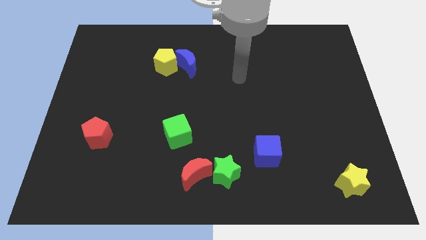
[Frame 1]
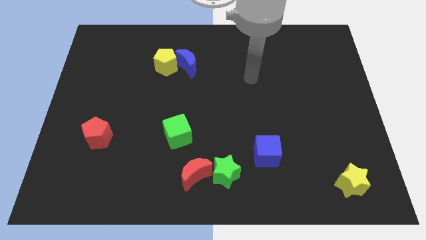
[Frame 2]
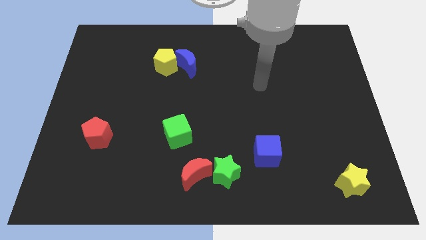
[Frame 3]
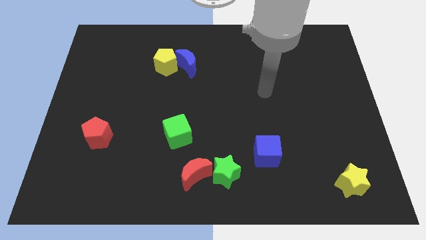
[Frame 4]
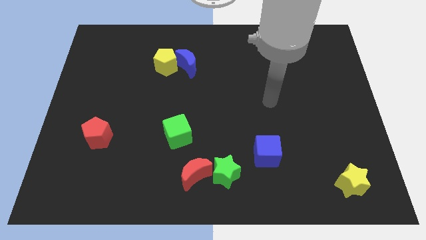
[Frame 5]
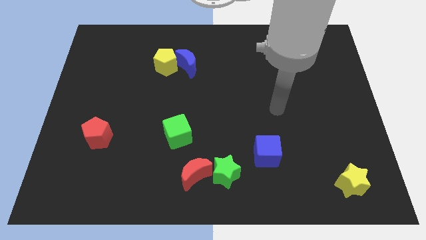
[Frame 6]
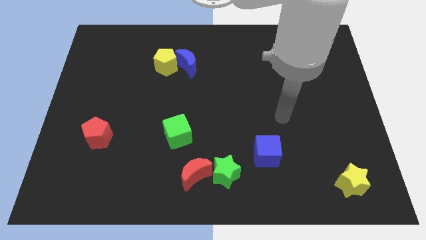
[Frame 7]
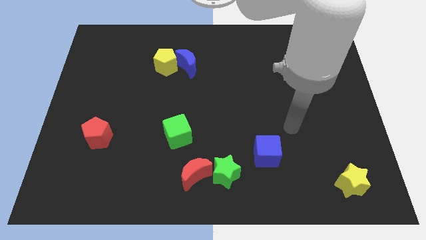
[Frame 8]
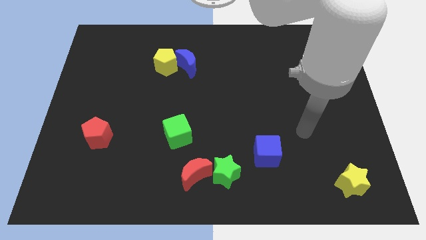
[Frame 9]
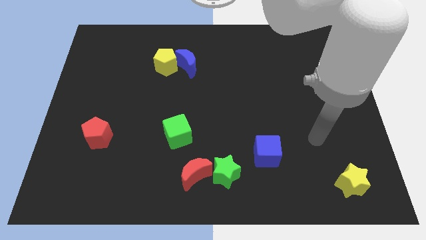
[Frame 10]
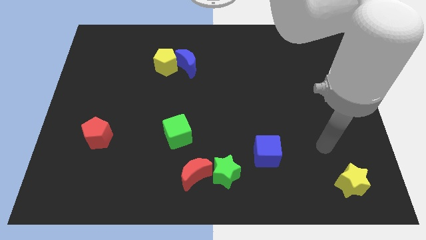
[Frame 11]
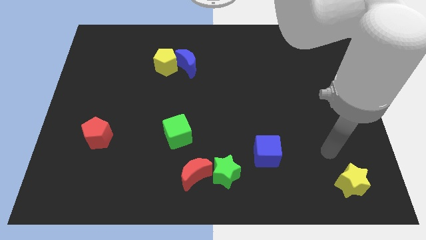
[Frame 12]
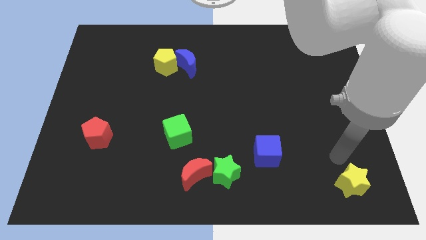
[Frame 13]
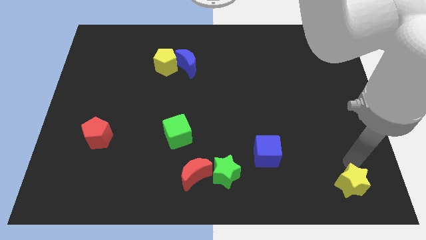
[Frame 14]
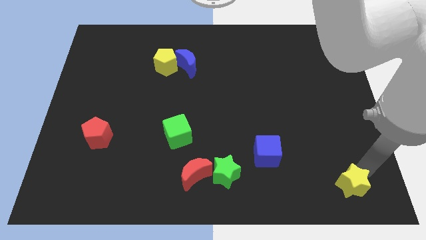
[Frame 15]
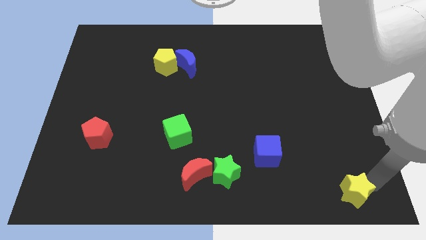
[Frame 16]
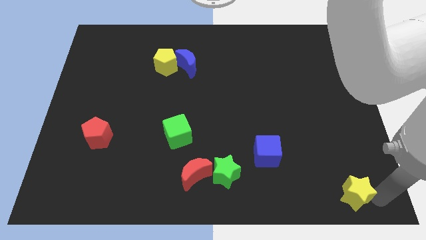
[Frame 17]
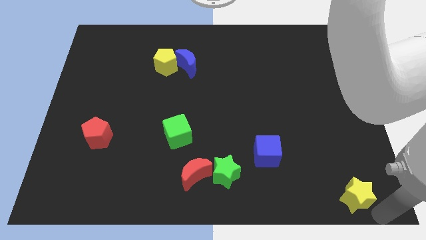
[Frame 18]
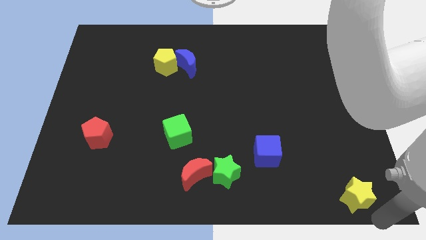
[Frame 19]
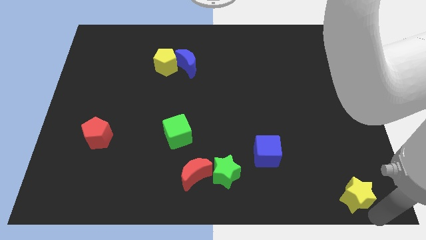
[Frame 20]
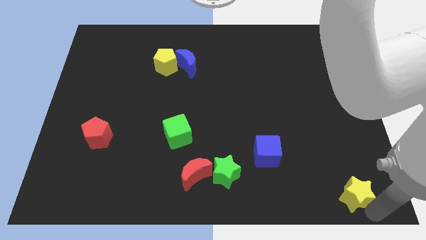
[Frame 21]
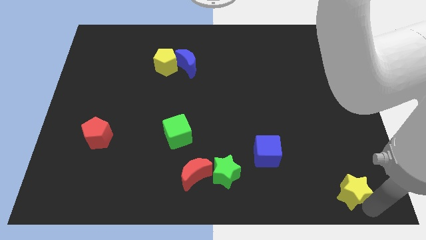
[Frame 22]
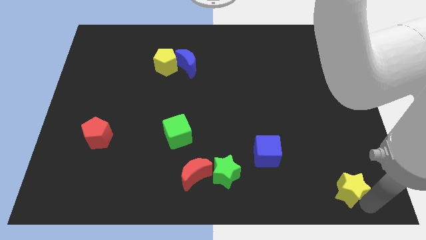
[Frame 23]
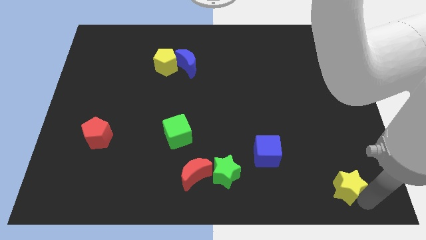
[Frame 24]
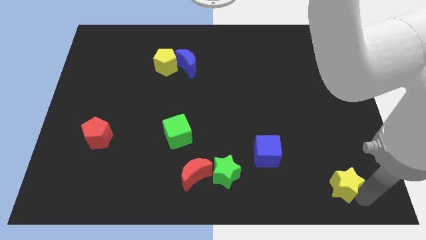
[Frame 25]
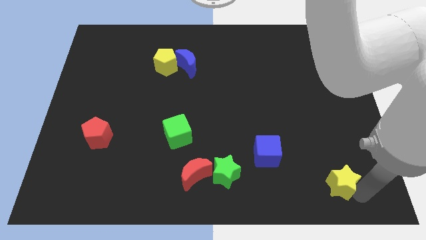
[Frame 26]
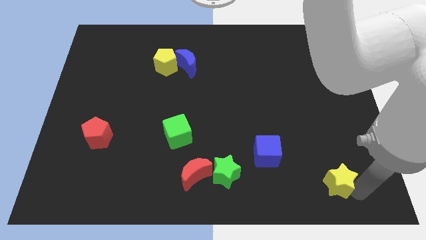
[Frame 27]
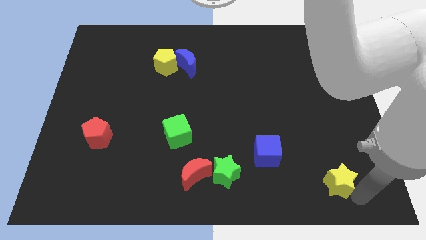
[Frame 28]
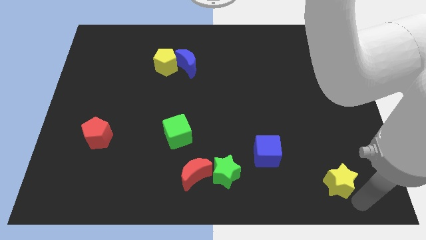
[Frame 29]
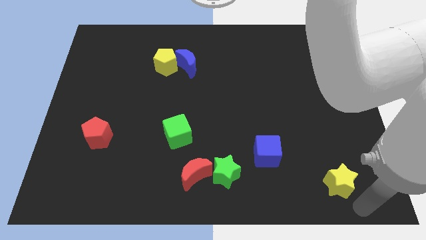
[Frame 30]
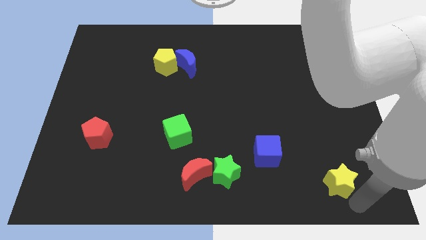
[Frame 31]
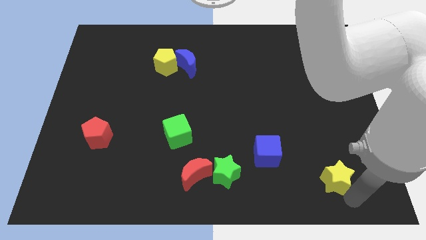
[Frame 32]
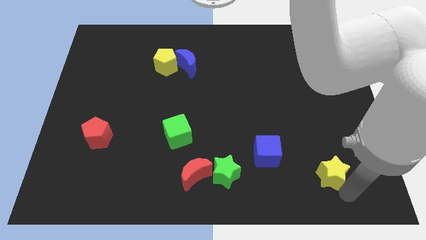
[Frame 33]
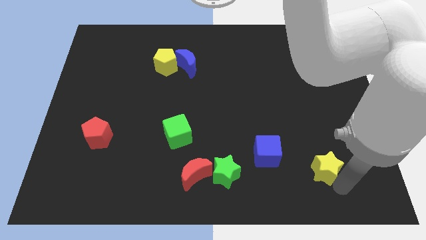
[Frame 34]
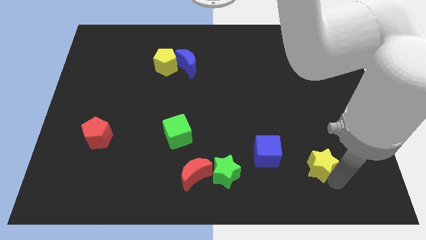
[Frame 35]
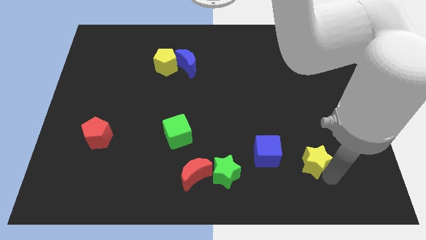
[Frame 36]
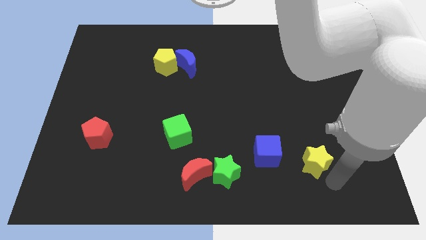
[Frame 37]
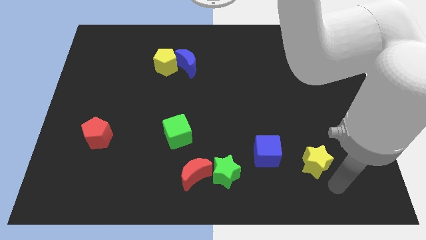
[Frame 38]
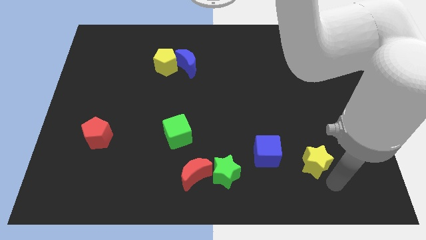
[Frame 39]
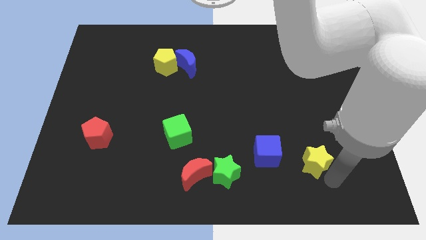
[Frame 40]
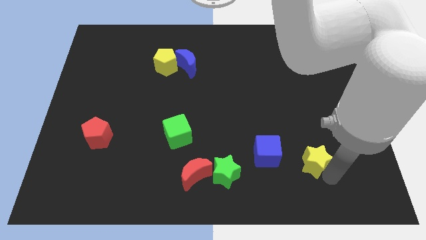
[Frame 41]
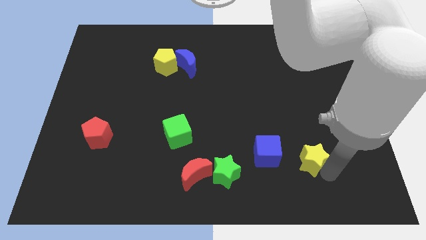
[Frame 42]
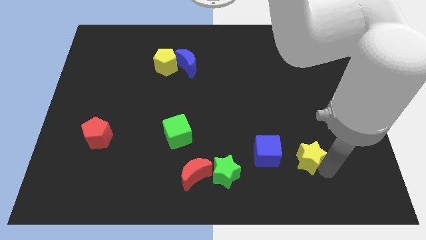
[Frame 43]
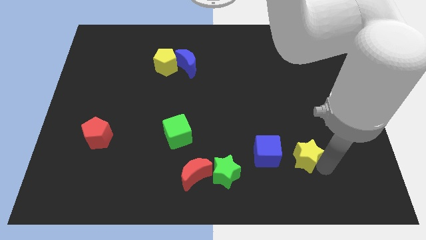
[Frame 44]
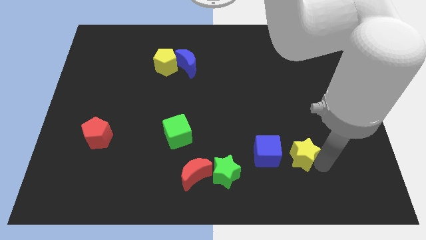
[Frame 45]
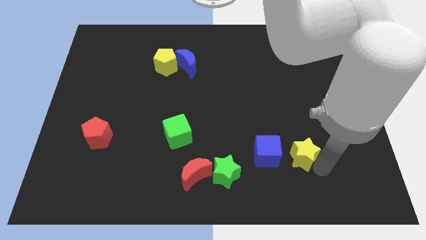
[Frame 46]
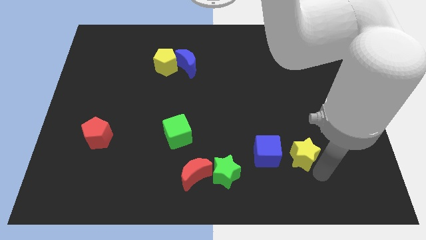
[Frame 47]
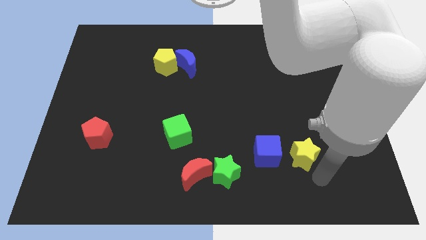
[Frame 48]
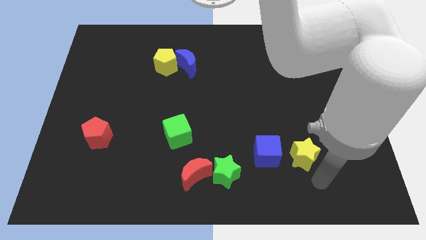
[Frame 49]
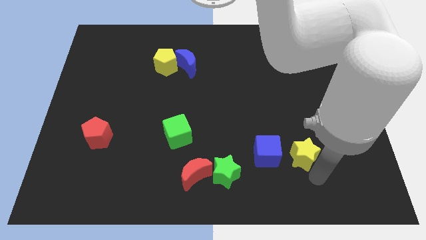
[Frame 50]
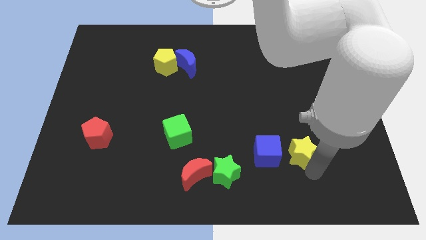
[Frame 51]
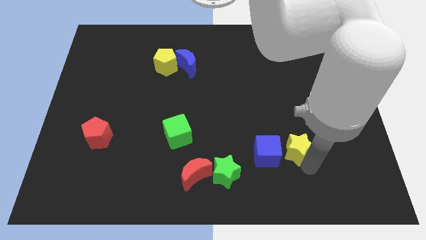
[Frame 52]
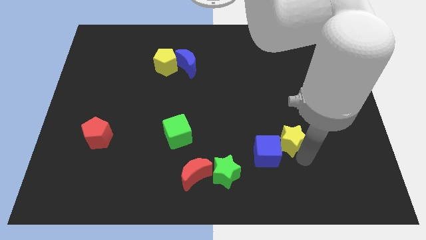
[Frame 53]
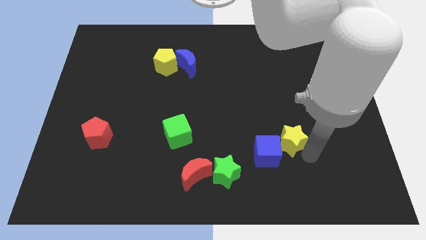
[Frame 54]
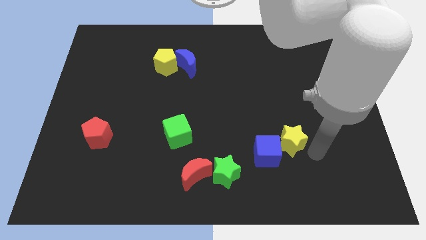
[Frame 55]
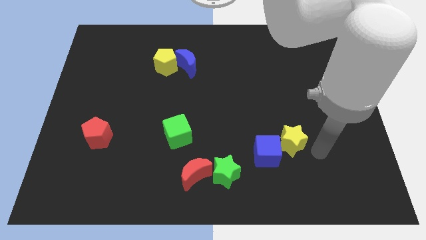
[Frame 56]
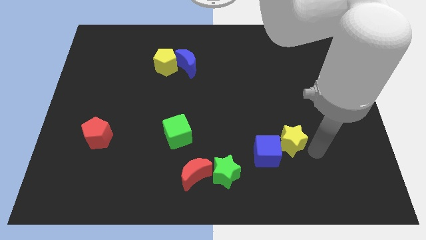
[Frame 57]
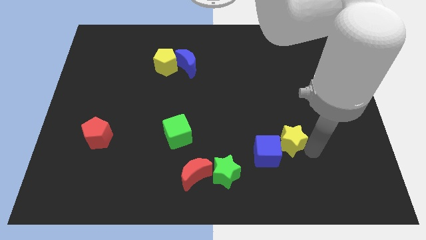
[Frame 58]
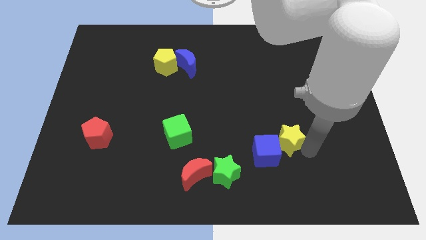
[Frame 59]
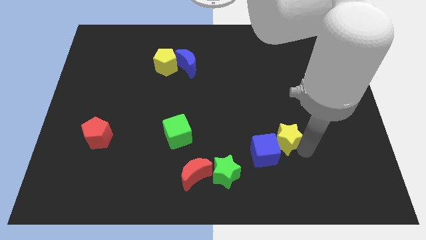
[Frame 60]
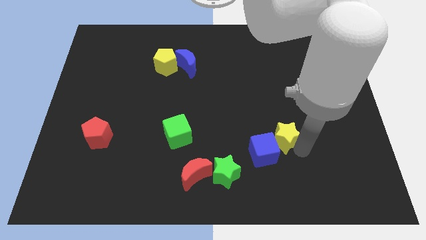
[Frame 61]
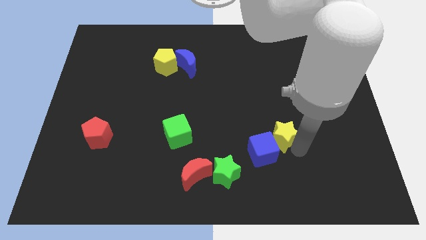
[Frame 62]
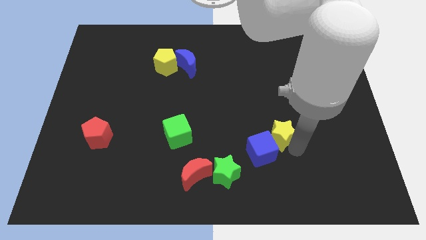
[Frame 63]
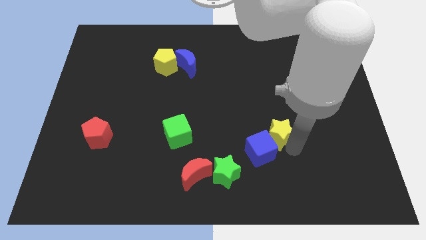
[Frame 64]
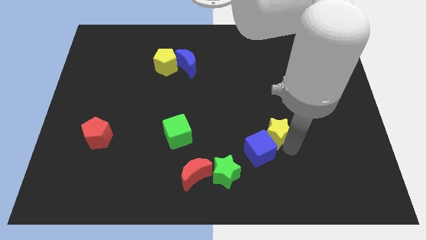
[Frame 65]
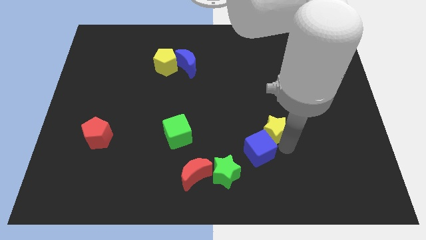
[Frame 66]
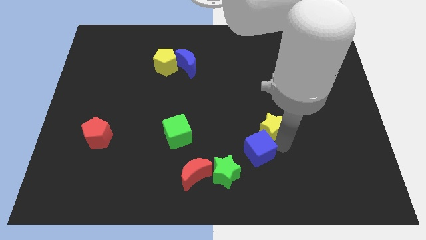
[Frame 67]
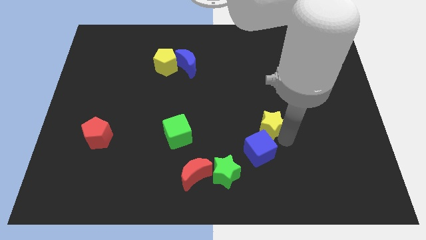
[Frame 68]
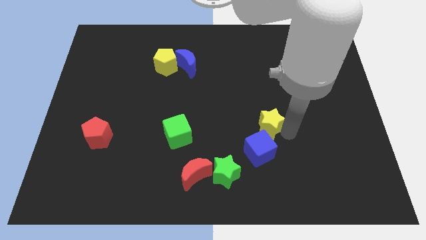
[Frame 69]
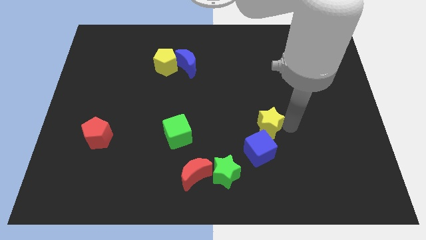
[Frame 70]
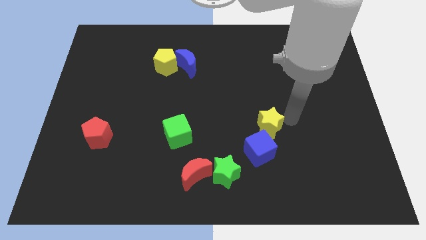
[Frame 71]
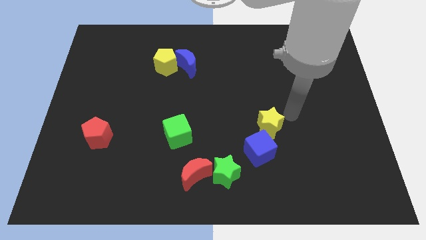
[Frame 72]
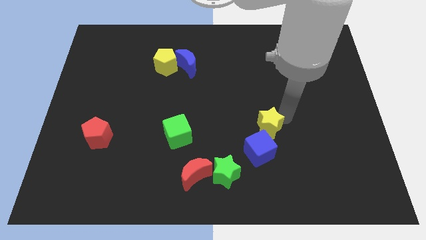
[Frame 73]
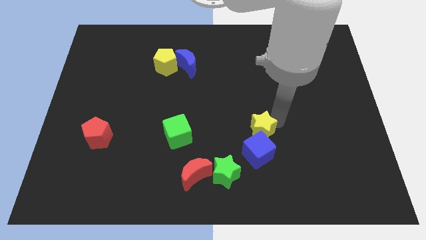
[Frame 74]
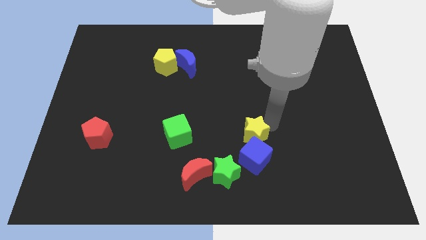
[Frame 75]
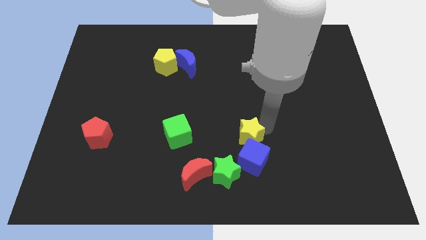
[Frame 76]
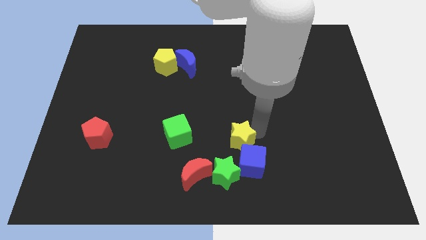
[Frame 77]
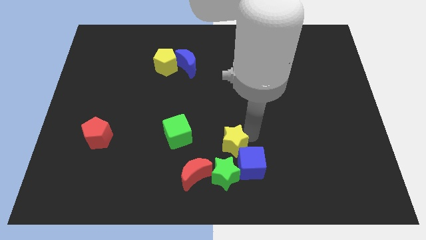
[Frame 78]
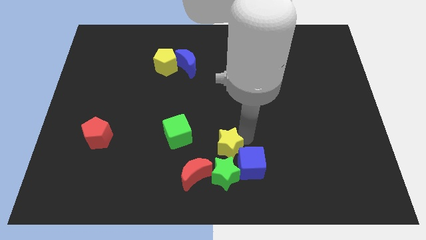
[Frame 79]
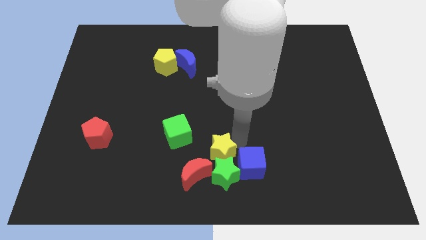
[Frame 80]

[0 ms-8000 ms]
put the yellow star to the bottom right side of the green cube

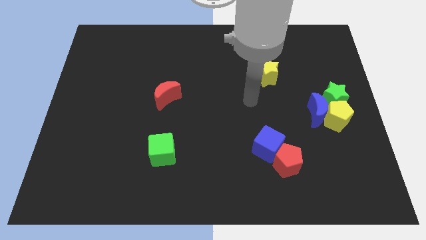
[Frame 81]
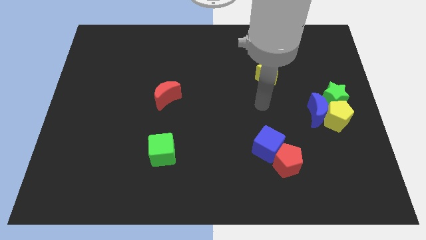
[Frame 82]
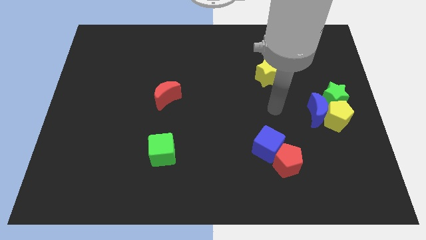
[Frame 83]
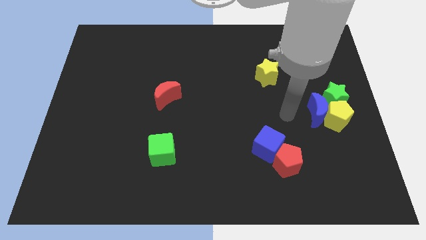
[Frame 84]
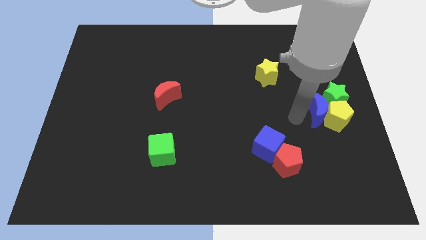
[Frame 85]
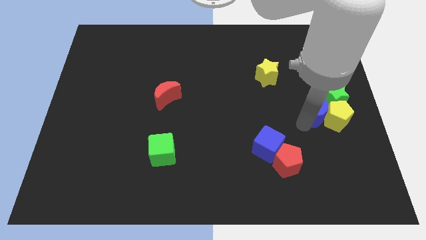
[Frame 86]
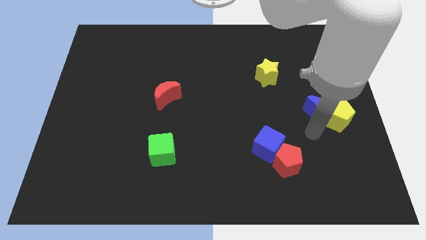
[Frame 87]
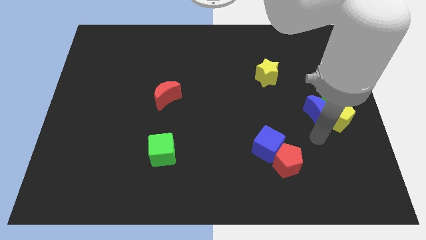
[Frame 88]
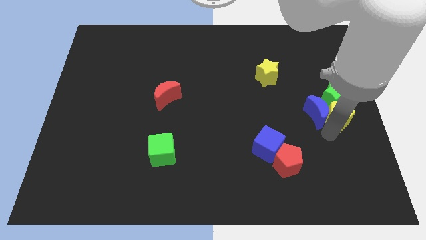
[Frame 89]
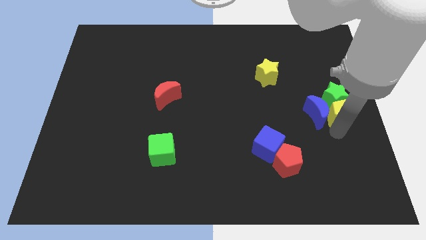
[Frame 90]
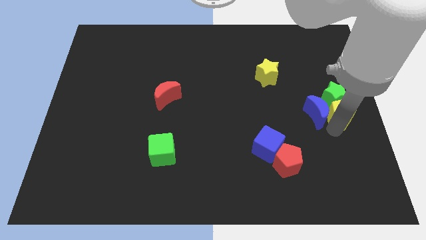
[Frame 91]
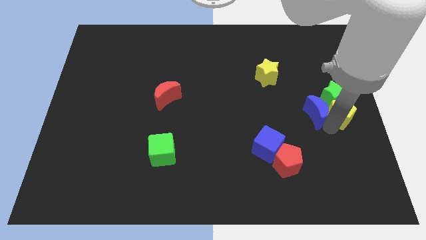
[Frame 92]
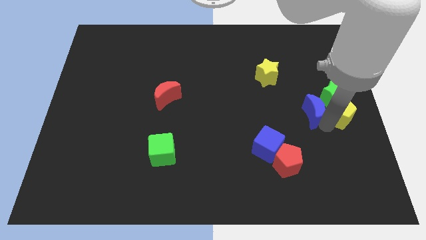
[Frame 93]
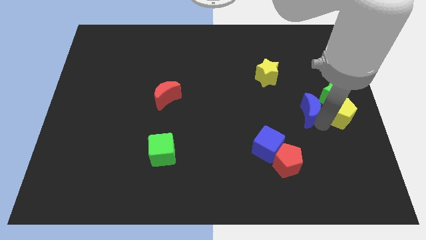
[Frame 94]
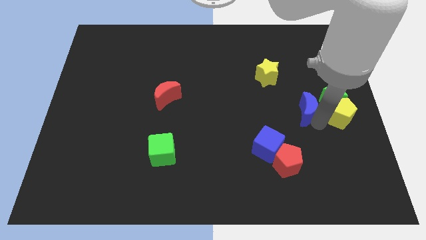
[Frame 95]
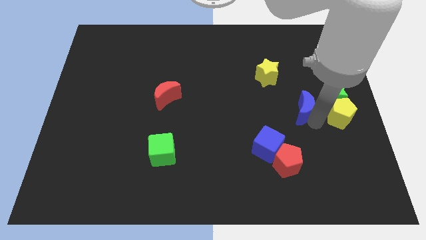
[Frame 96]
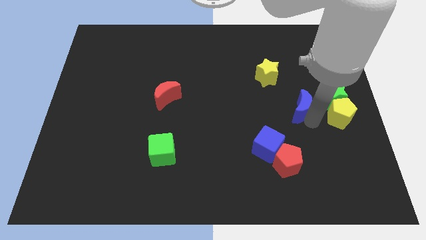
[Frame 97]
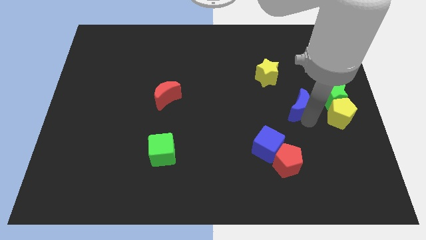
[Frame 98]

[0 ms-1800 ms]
move the blue moon to the bottom right side of the yellow star
